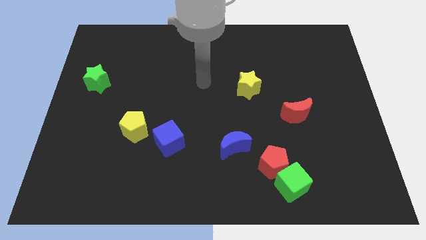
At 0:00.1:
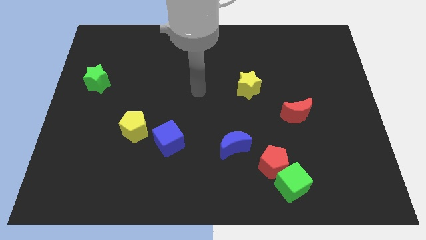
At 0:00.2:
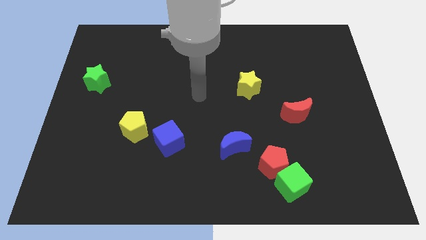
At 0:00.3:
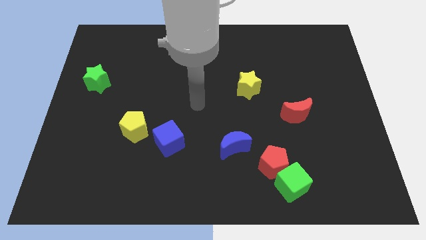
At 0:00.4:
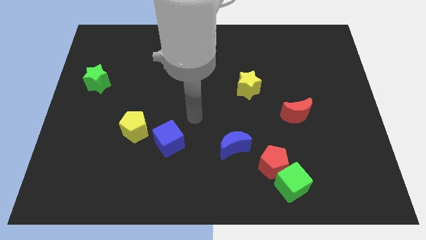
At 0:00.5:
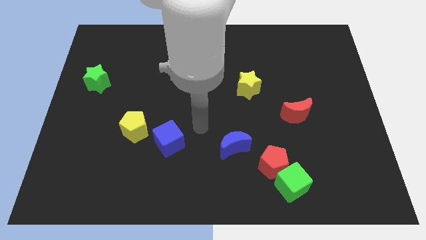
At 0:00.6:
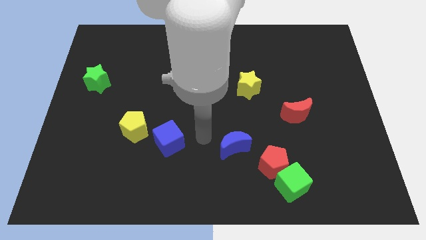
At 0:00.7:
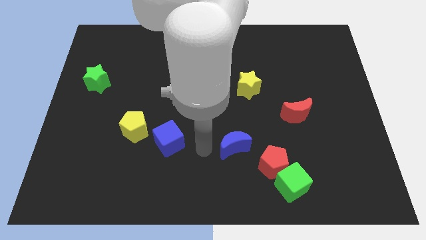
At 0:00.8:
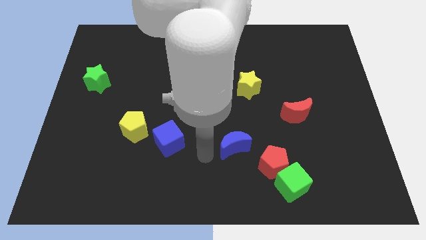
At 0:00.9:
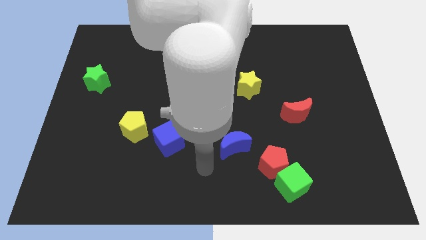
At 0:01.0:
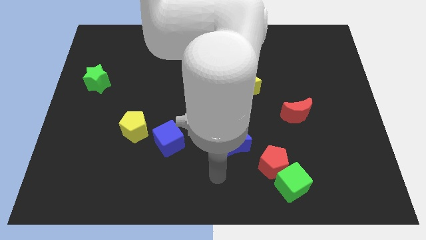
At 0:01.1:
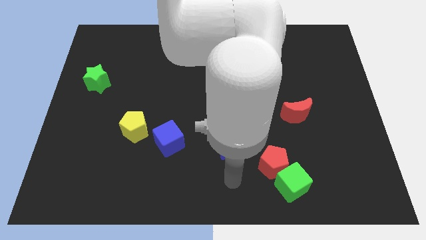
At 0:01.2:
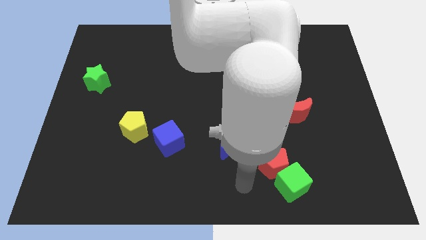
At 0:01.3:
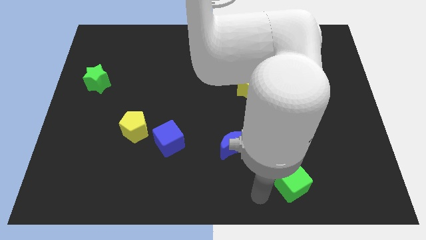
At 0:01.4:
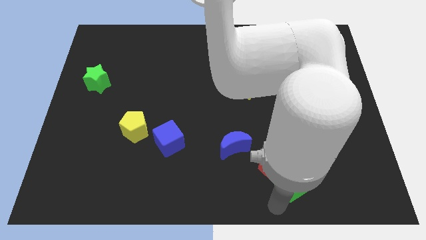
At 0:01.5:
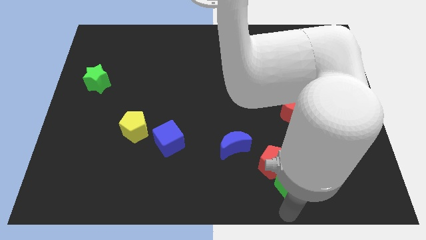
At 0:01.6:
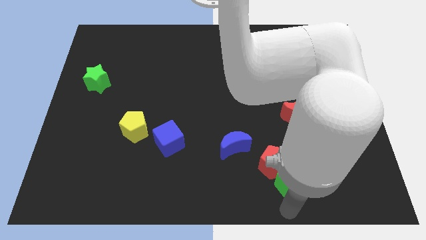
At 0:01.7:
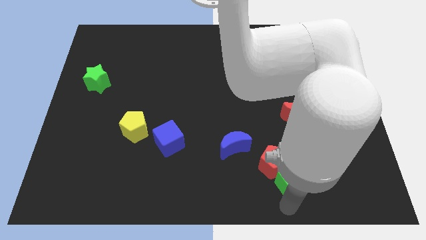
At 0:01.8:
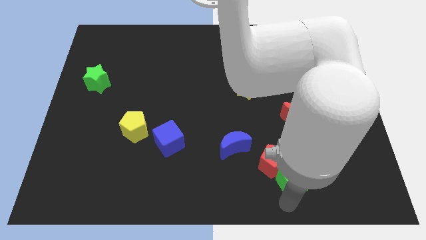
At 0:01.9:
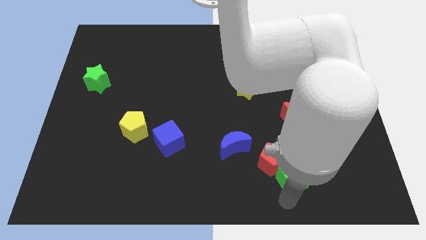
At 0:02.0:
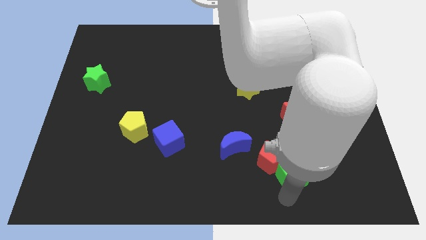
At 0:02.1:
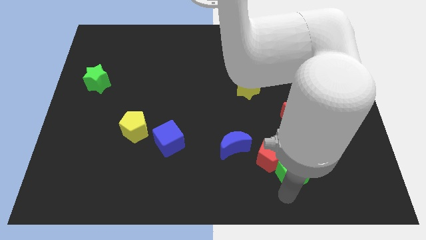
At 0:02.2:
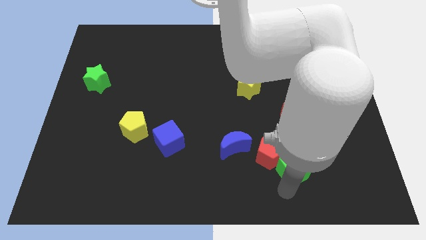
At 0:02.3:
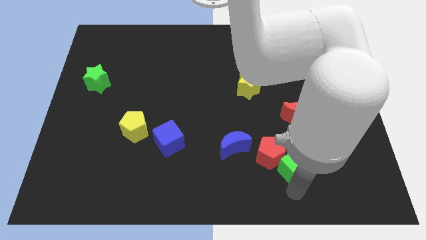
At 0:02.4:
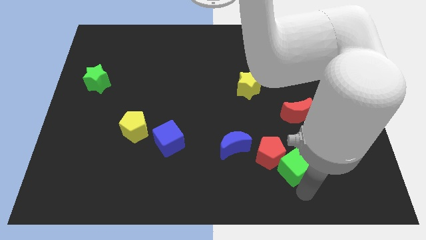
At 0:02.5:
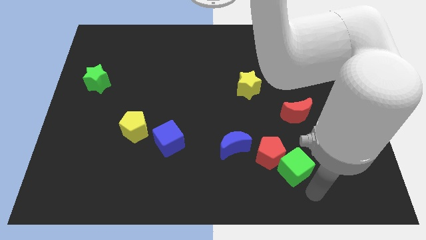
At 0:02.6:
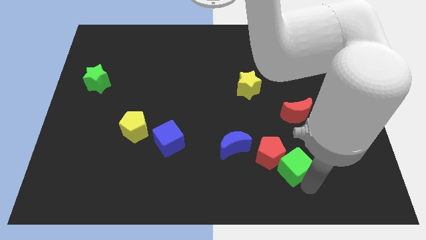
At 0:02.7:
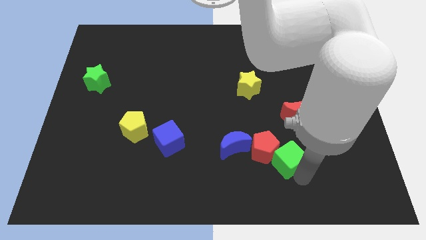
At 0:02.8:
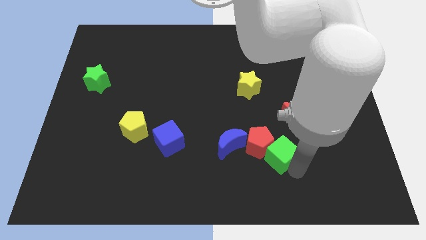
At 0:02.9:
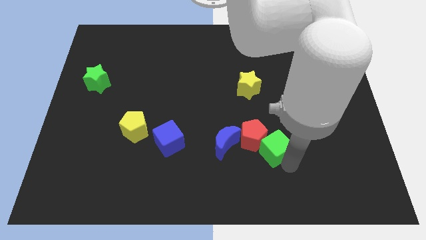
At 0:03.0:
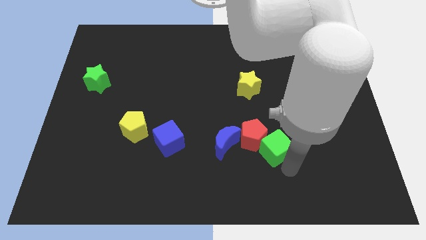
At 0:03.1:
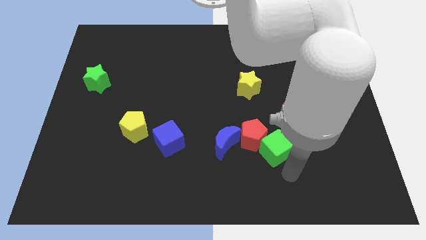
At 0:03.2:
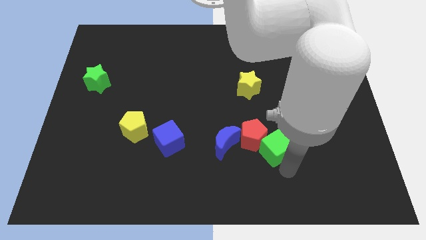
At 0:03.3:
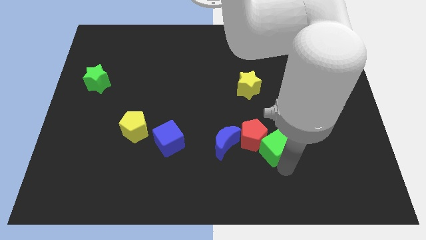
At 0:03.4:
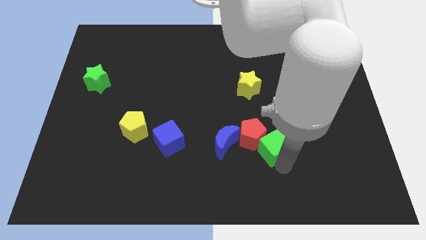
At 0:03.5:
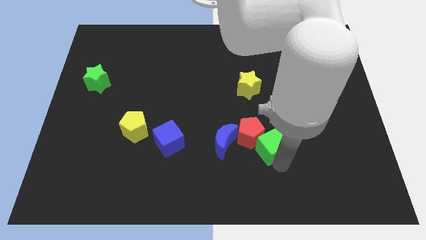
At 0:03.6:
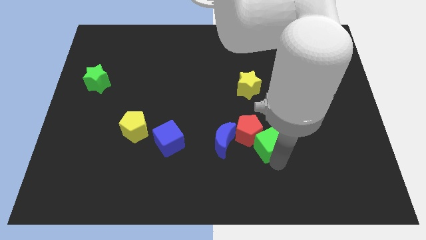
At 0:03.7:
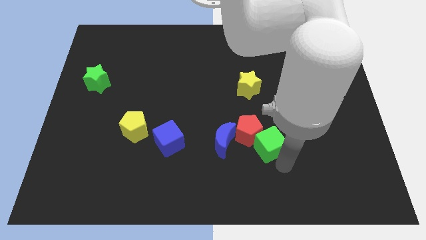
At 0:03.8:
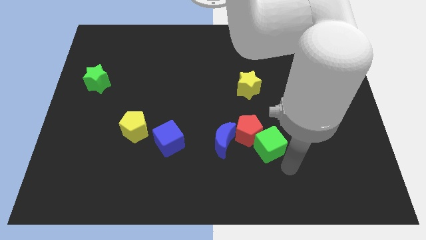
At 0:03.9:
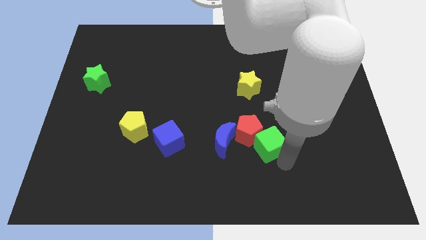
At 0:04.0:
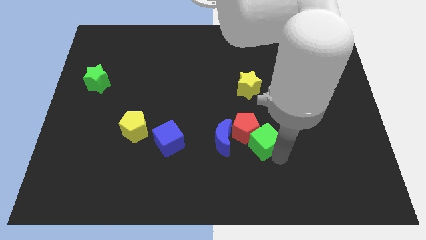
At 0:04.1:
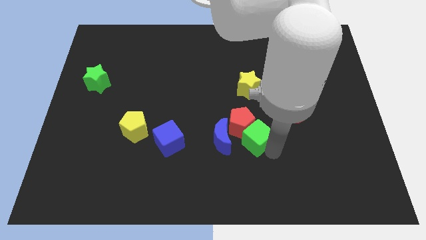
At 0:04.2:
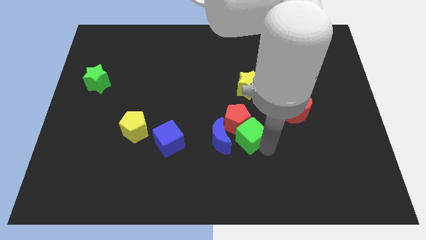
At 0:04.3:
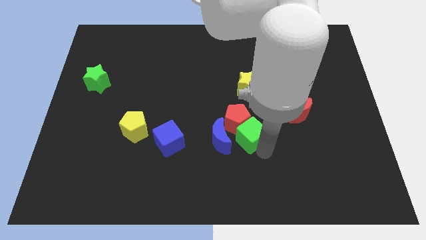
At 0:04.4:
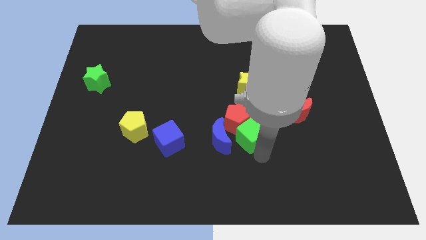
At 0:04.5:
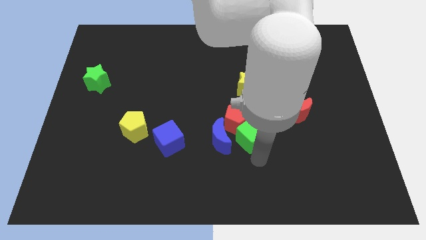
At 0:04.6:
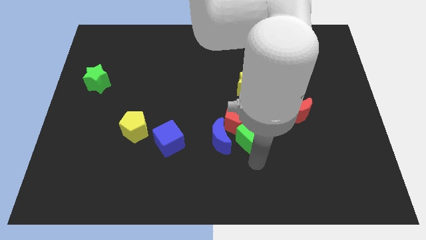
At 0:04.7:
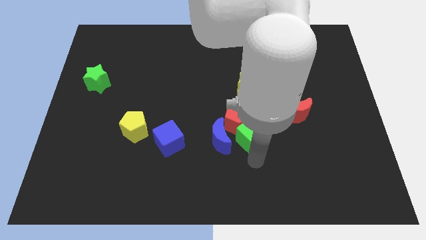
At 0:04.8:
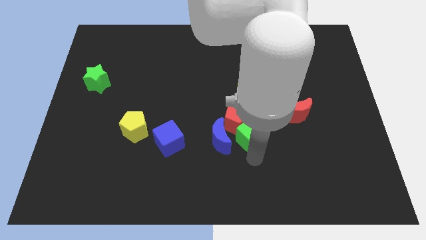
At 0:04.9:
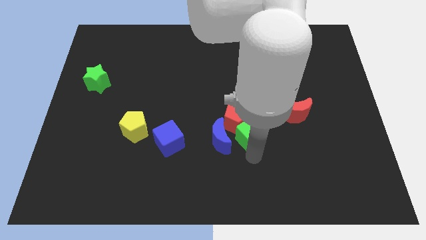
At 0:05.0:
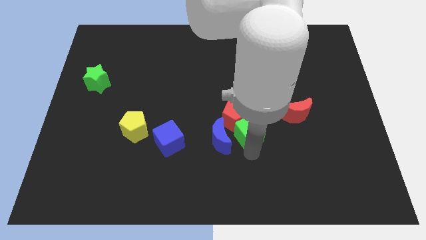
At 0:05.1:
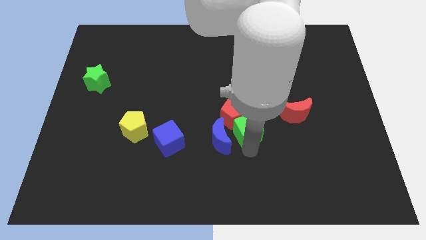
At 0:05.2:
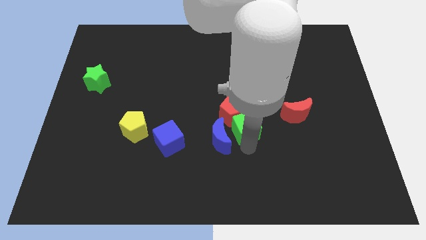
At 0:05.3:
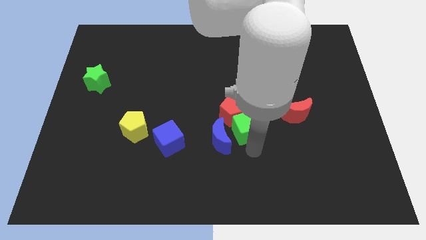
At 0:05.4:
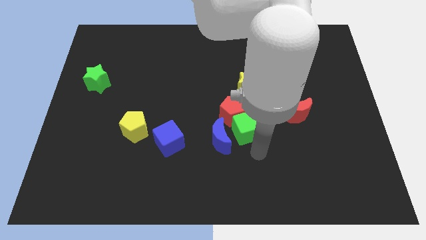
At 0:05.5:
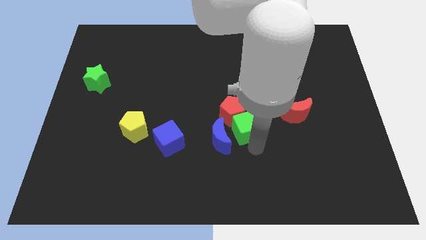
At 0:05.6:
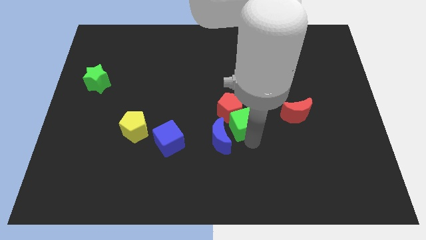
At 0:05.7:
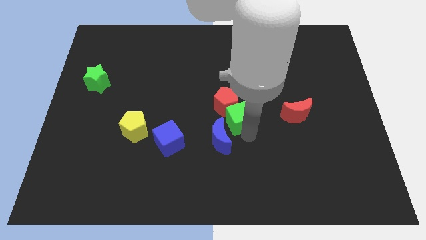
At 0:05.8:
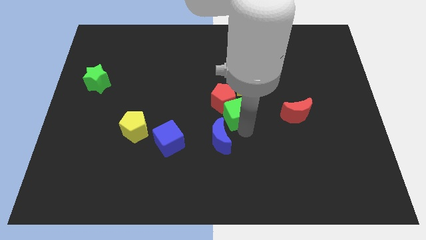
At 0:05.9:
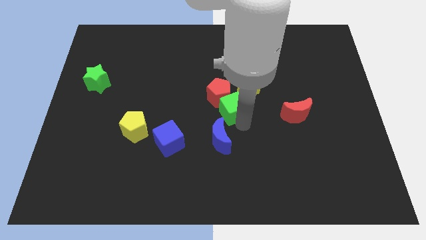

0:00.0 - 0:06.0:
push the green cube up and then left

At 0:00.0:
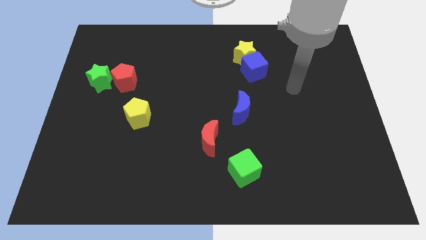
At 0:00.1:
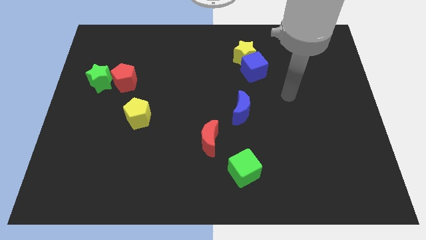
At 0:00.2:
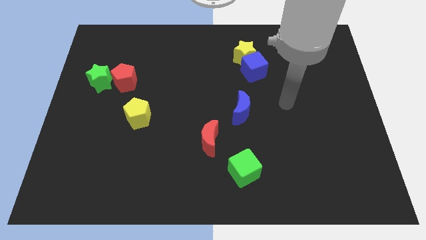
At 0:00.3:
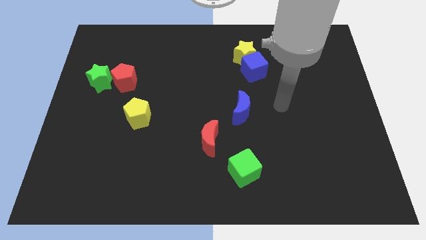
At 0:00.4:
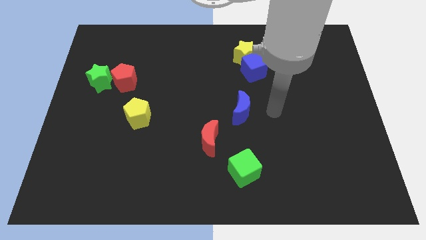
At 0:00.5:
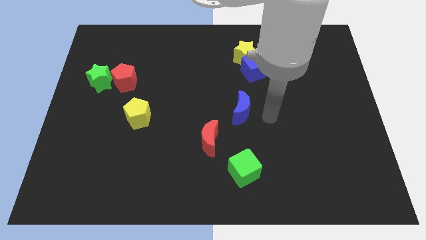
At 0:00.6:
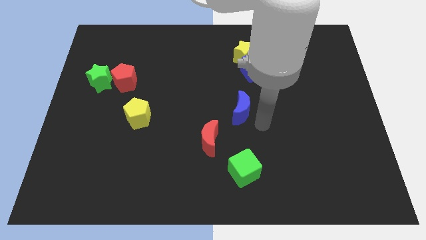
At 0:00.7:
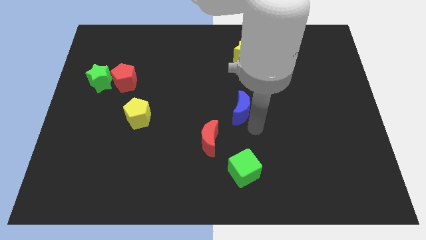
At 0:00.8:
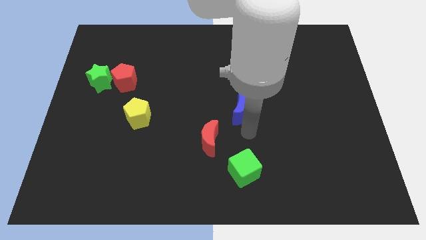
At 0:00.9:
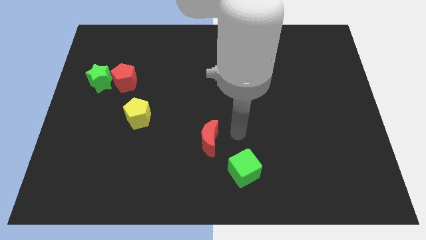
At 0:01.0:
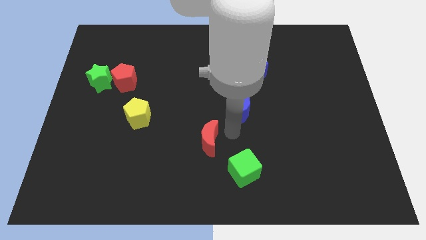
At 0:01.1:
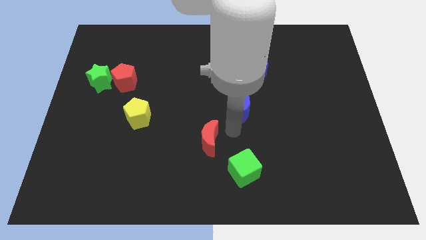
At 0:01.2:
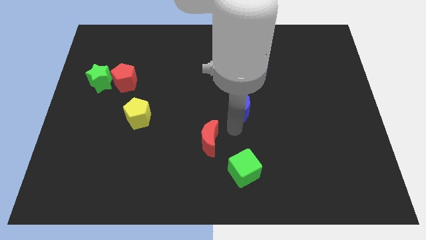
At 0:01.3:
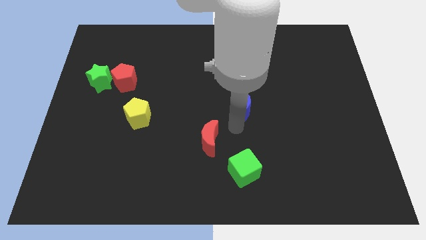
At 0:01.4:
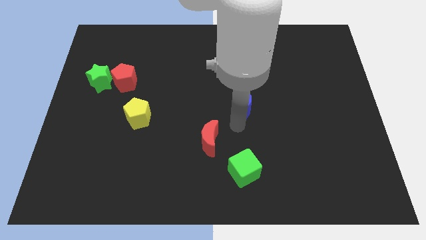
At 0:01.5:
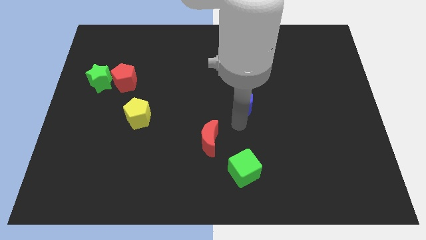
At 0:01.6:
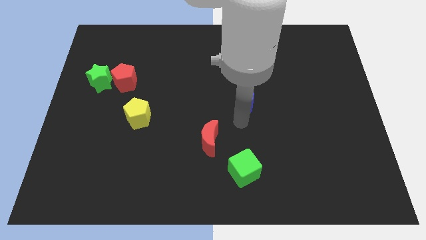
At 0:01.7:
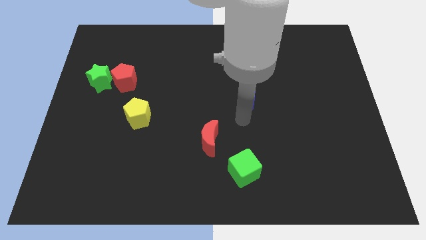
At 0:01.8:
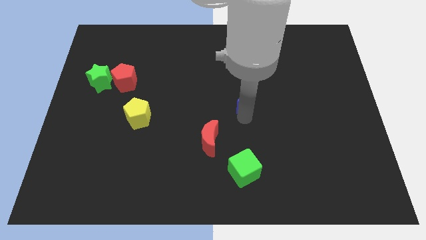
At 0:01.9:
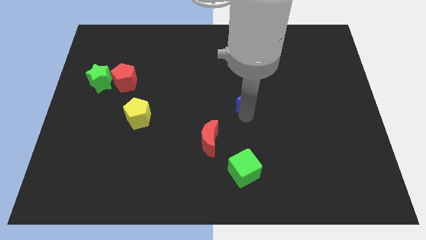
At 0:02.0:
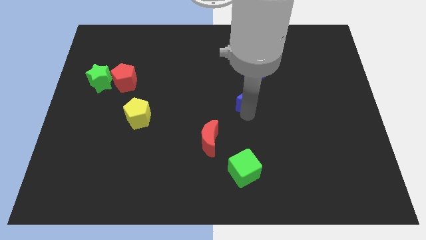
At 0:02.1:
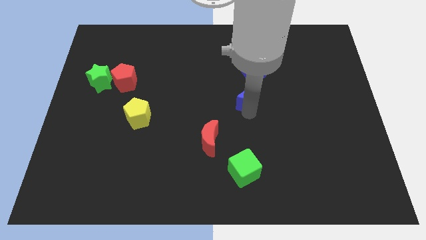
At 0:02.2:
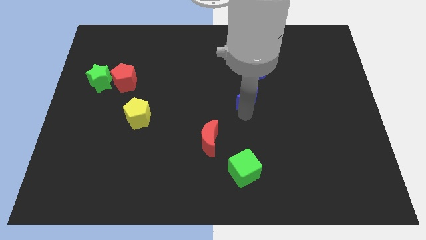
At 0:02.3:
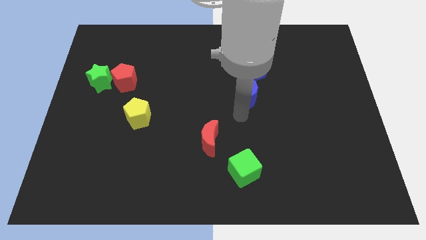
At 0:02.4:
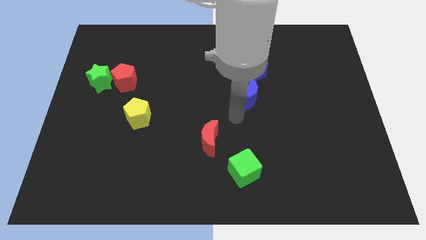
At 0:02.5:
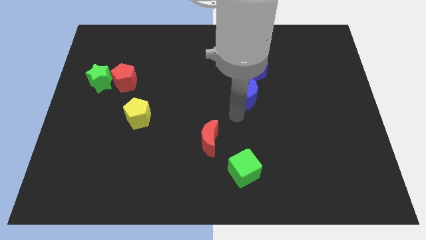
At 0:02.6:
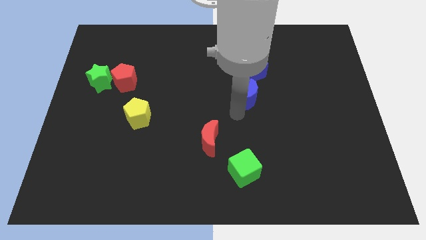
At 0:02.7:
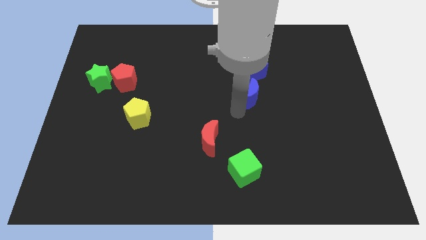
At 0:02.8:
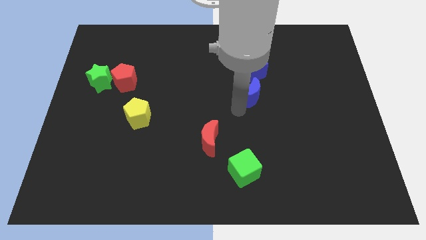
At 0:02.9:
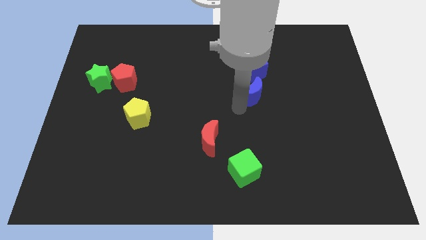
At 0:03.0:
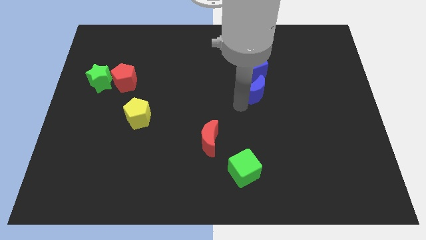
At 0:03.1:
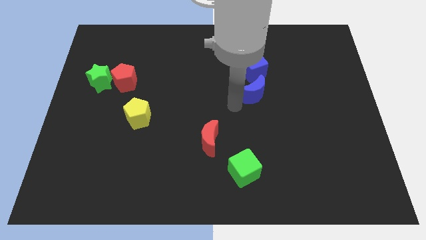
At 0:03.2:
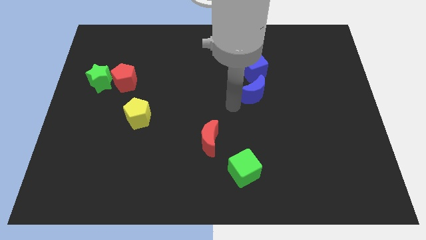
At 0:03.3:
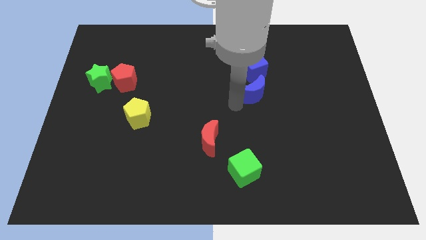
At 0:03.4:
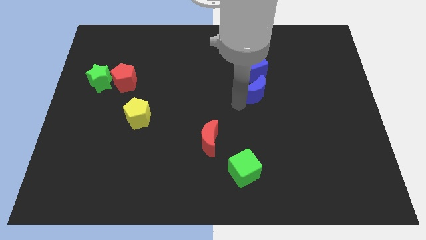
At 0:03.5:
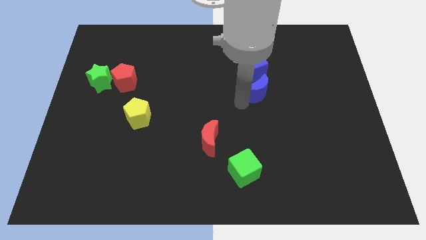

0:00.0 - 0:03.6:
push the blue moon a little bit up and to the right diagonally
